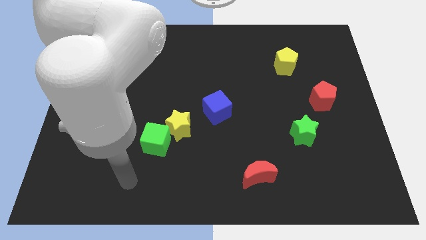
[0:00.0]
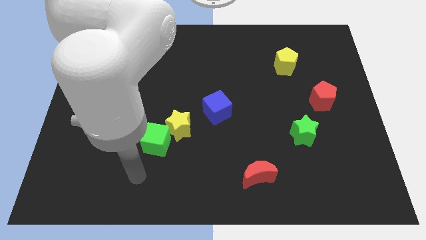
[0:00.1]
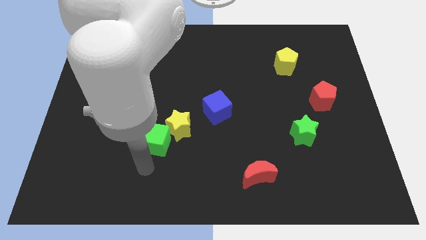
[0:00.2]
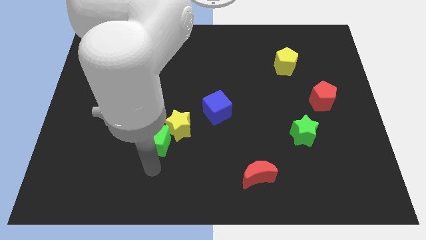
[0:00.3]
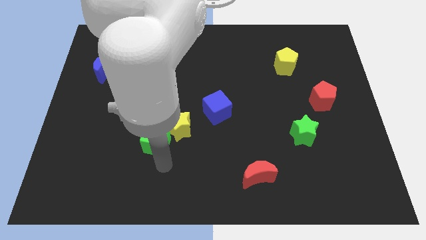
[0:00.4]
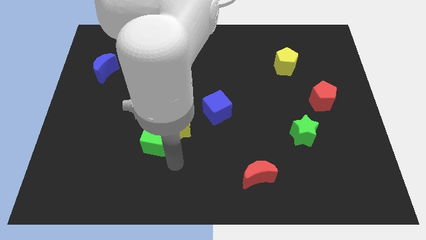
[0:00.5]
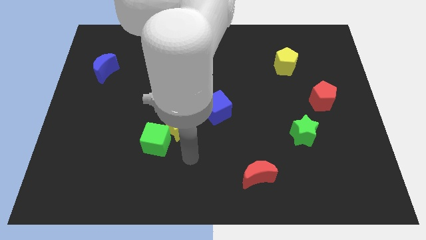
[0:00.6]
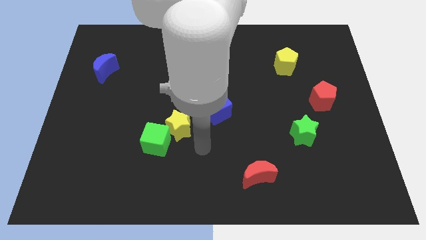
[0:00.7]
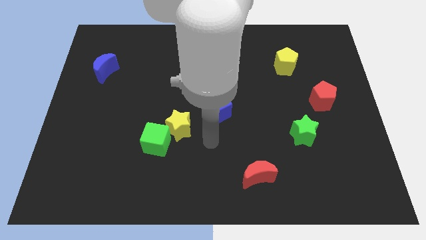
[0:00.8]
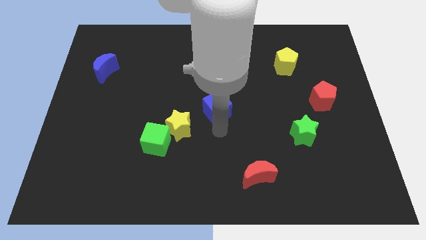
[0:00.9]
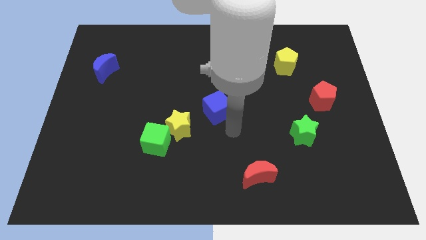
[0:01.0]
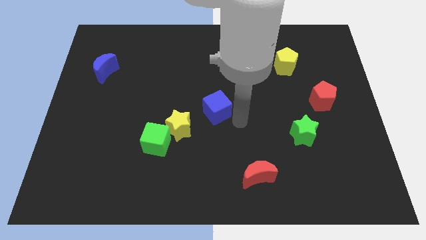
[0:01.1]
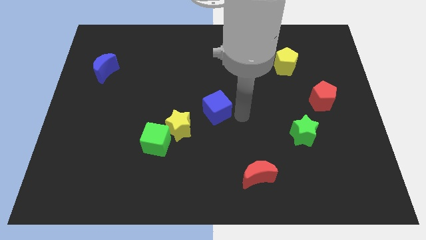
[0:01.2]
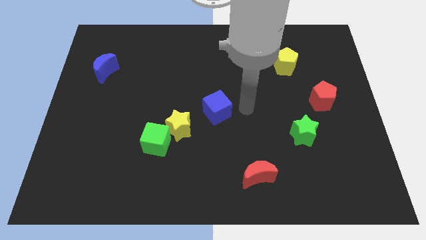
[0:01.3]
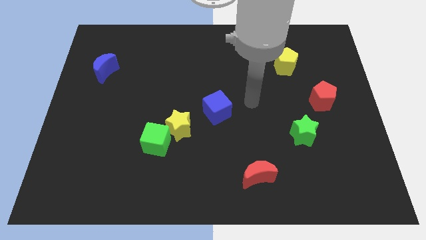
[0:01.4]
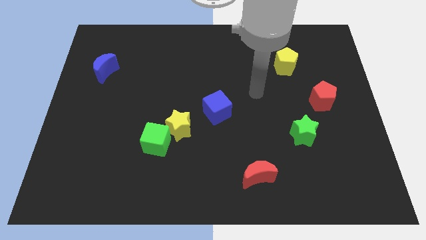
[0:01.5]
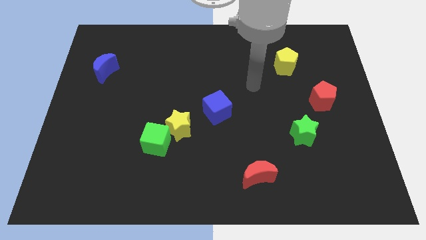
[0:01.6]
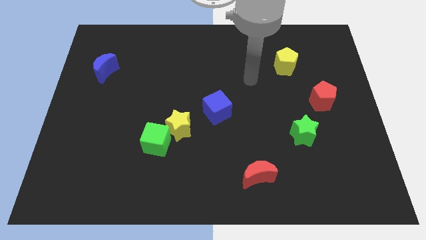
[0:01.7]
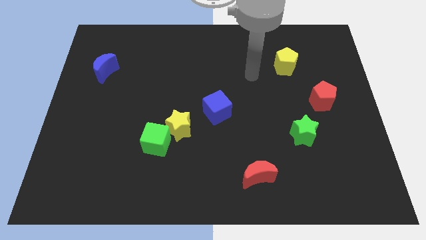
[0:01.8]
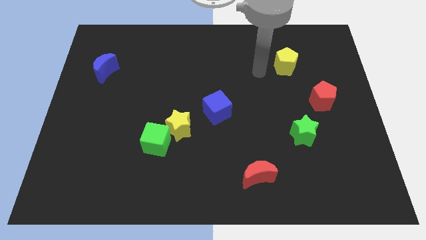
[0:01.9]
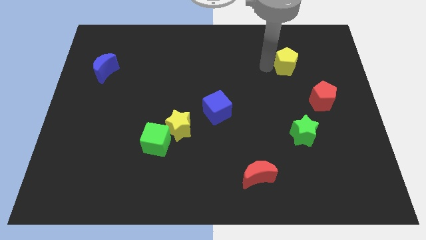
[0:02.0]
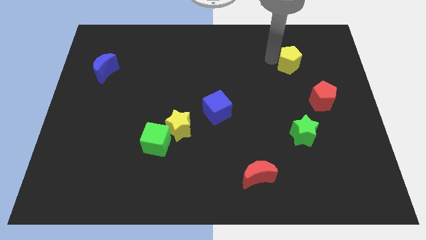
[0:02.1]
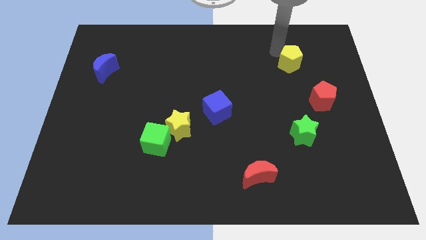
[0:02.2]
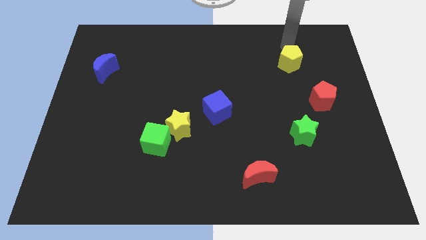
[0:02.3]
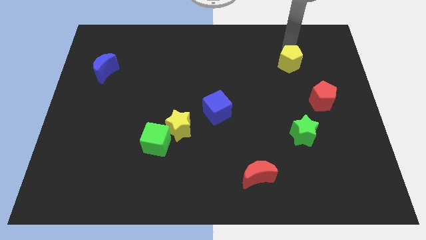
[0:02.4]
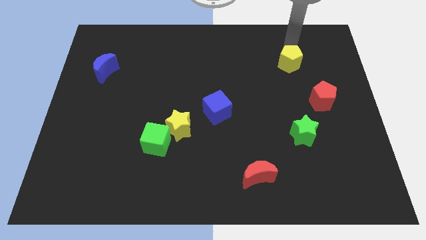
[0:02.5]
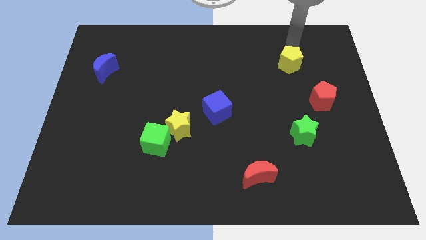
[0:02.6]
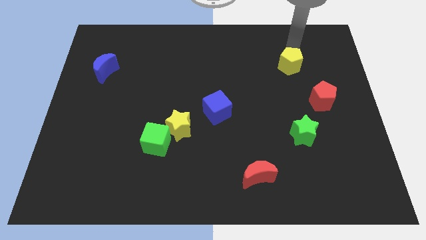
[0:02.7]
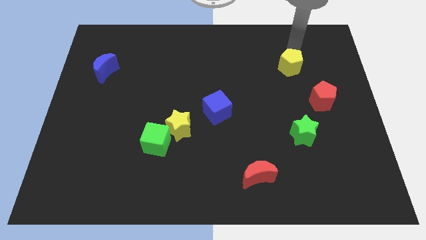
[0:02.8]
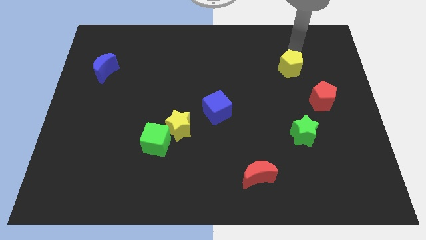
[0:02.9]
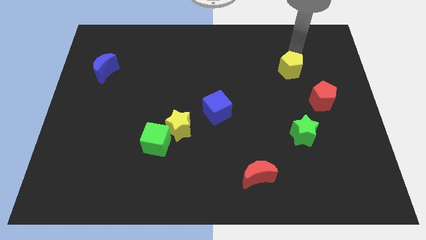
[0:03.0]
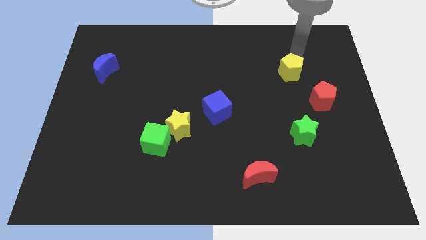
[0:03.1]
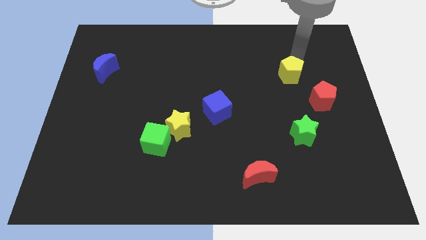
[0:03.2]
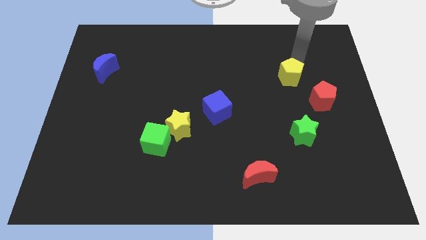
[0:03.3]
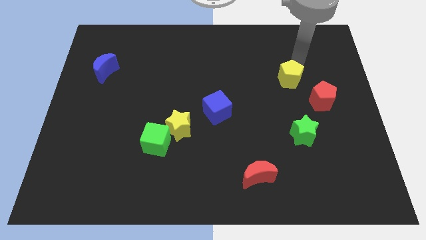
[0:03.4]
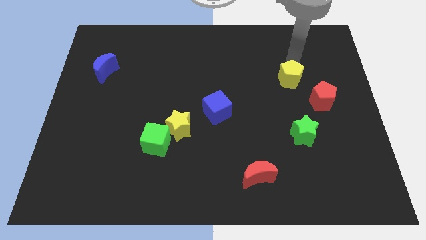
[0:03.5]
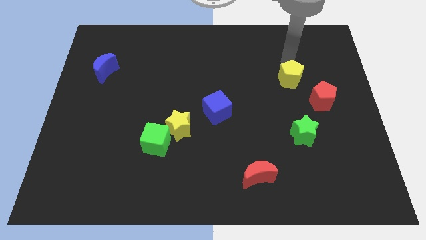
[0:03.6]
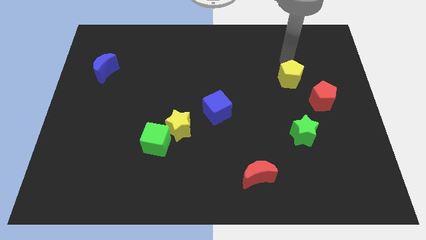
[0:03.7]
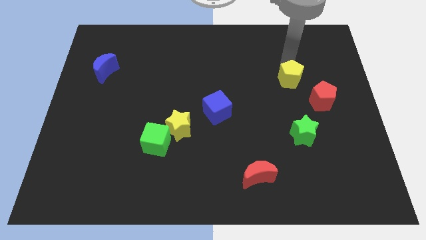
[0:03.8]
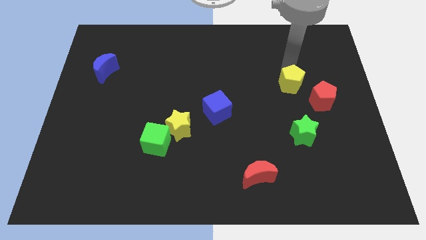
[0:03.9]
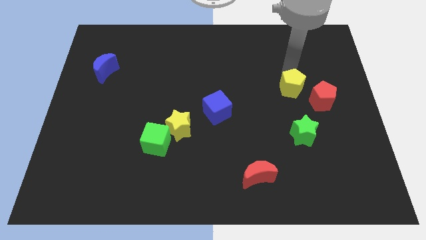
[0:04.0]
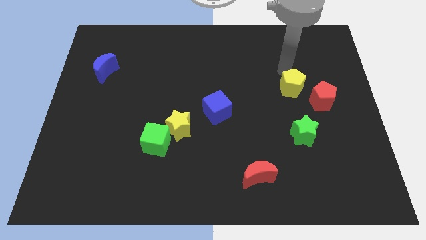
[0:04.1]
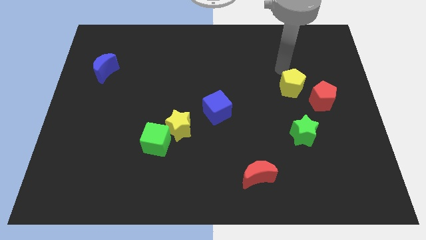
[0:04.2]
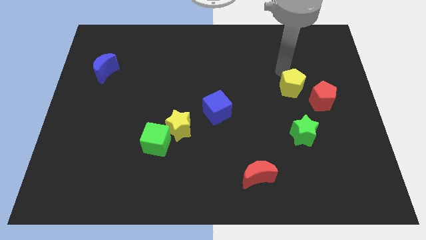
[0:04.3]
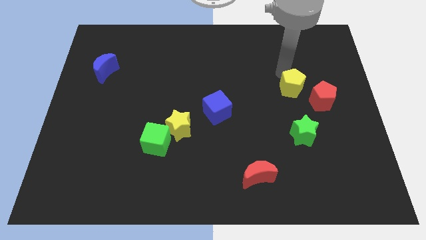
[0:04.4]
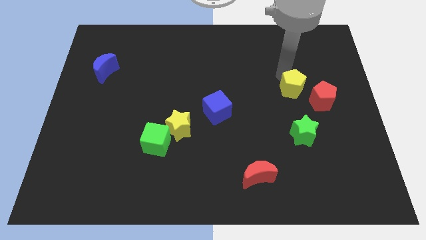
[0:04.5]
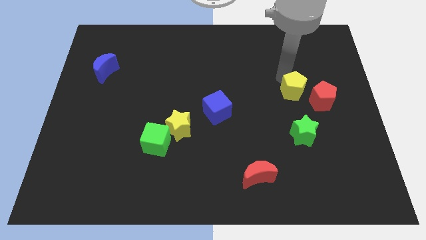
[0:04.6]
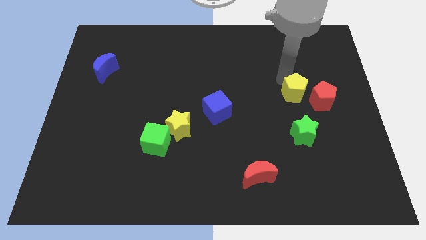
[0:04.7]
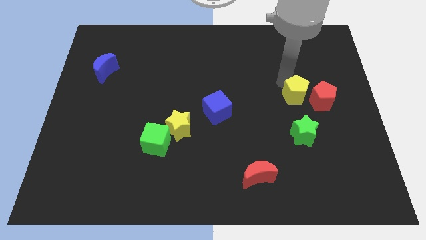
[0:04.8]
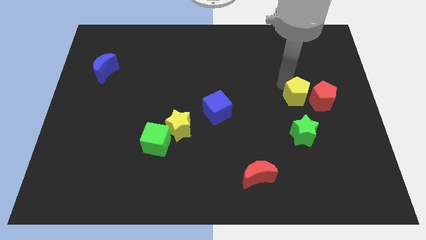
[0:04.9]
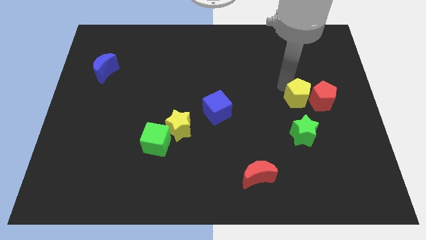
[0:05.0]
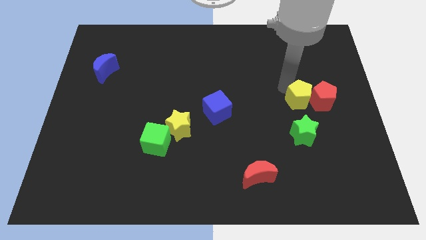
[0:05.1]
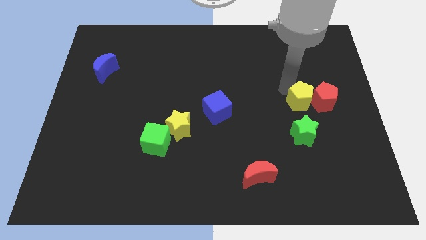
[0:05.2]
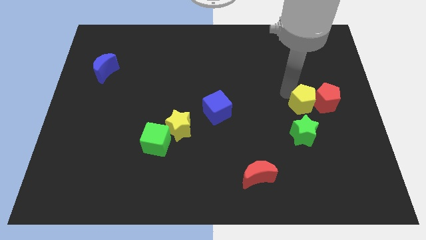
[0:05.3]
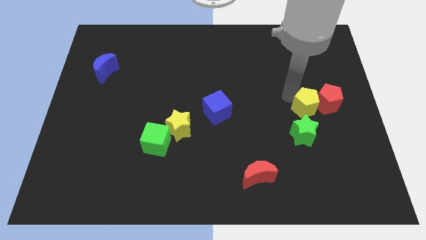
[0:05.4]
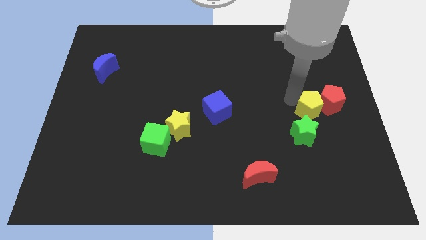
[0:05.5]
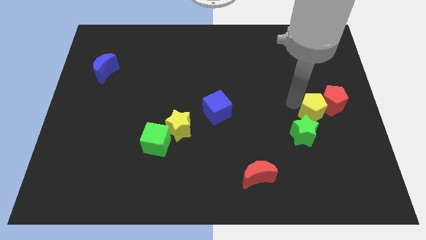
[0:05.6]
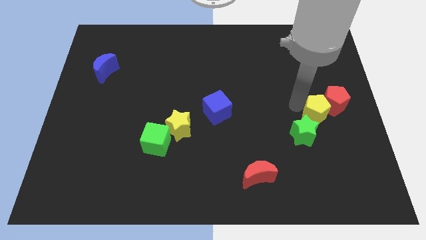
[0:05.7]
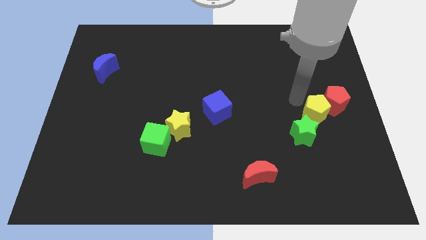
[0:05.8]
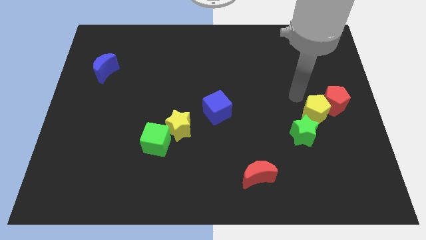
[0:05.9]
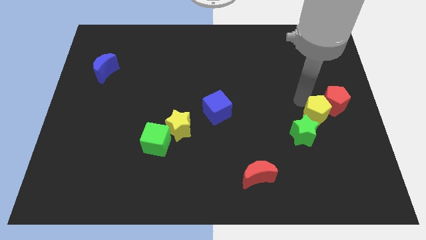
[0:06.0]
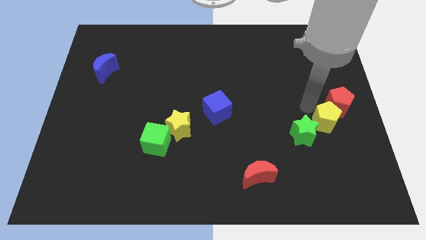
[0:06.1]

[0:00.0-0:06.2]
slide the yellow pentagon to the bottom side of the red pentagon

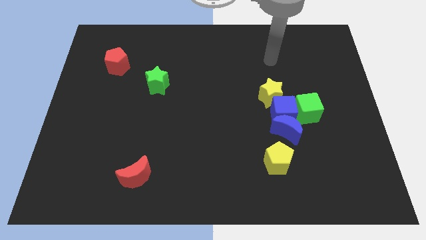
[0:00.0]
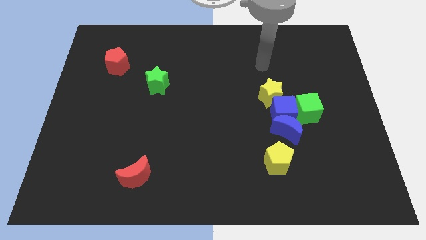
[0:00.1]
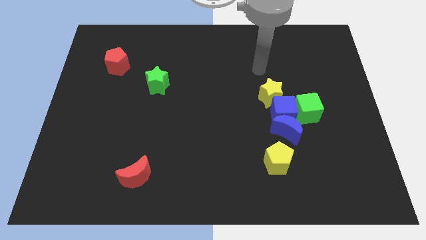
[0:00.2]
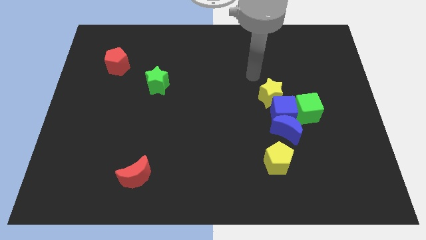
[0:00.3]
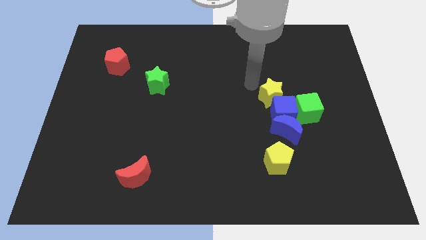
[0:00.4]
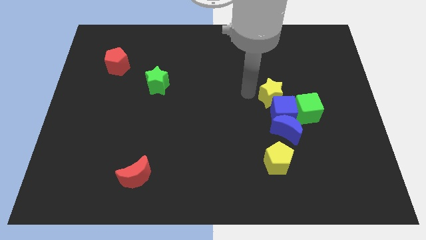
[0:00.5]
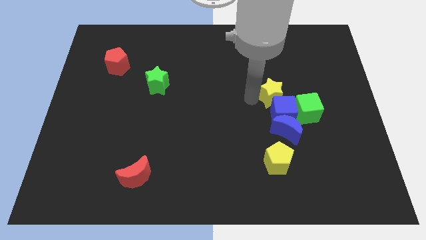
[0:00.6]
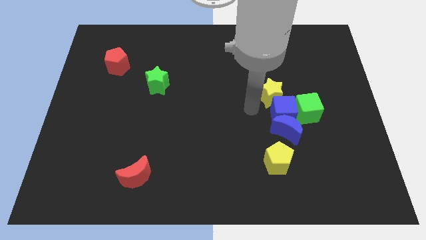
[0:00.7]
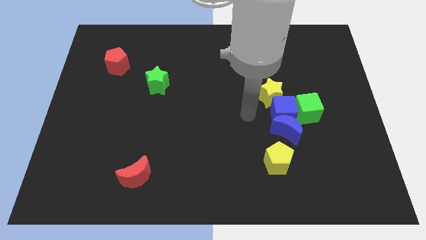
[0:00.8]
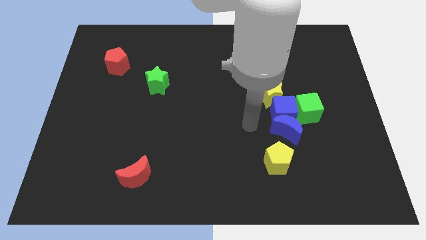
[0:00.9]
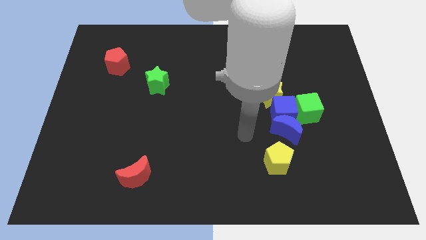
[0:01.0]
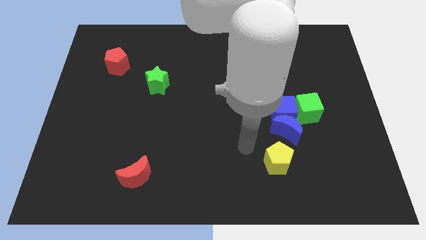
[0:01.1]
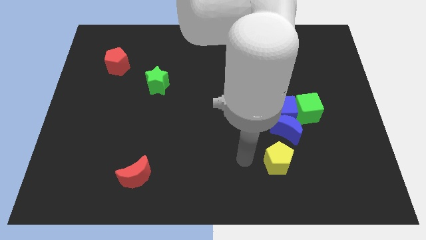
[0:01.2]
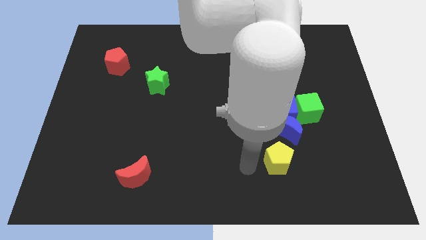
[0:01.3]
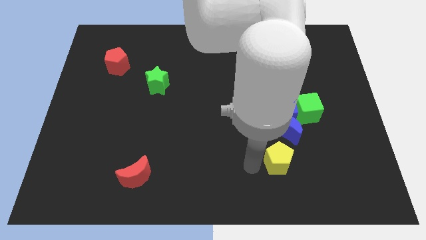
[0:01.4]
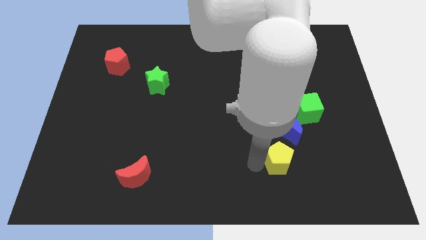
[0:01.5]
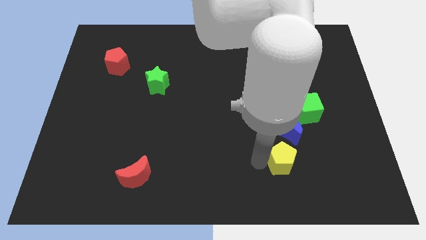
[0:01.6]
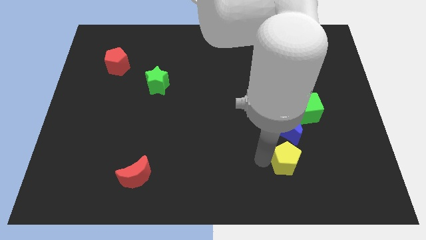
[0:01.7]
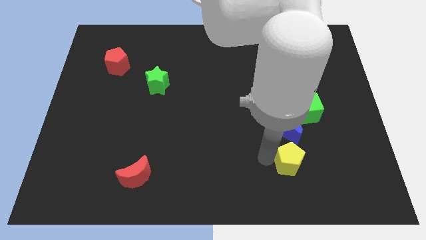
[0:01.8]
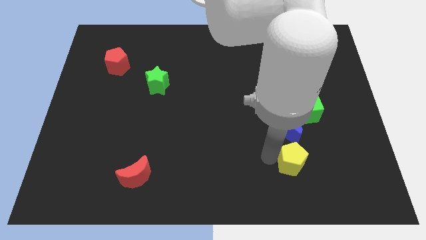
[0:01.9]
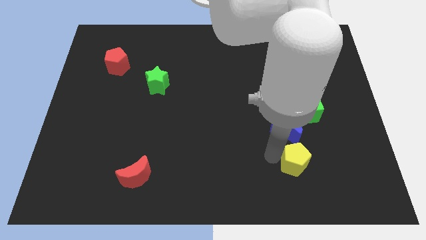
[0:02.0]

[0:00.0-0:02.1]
move the yellow pentagon to the bottom right of the blue moon
